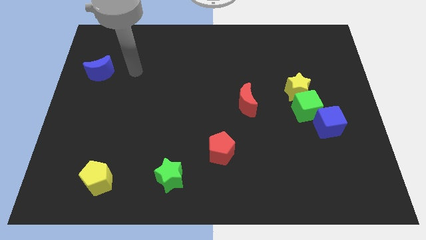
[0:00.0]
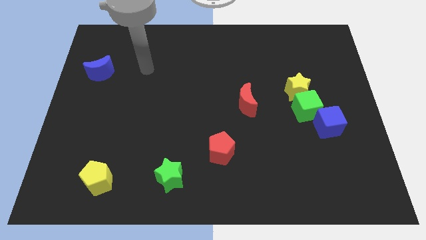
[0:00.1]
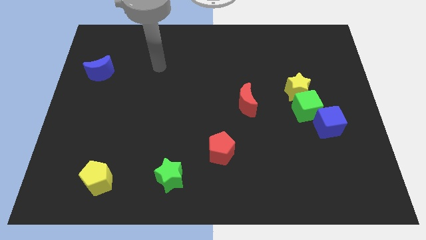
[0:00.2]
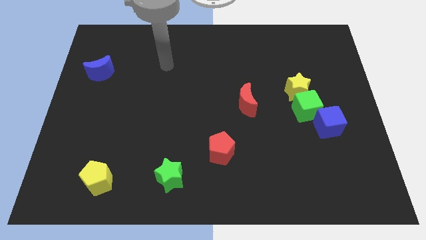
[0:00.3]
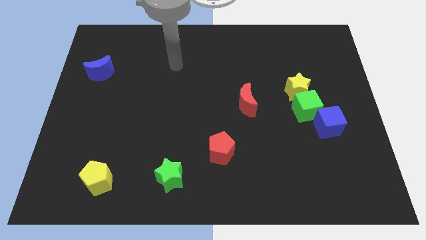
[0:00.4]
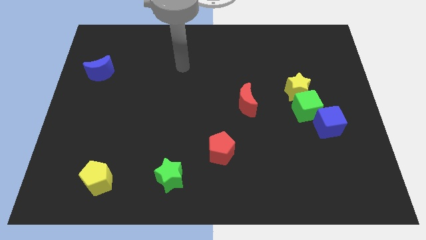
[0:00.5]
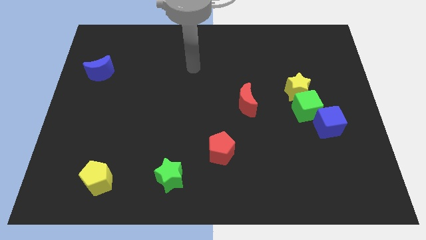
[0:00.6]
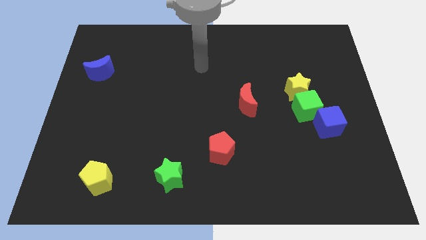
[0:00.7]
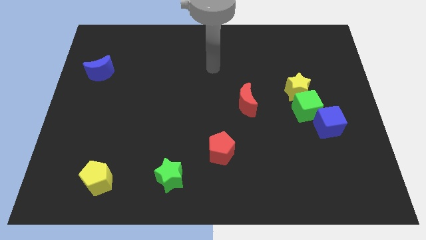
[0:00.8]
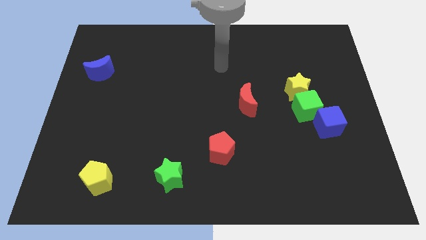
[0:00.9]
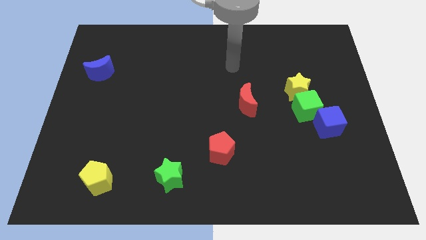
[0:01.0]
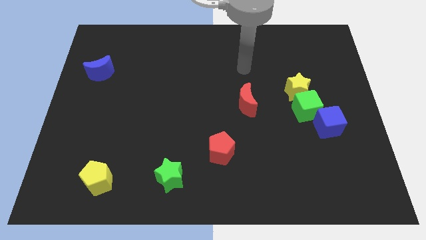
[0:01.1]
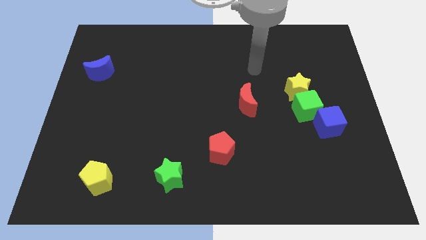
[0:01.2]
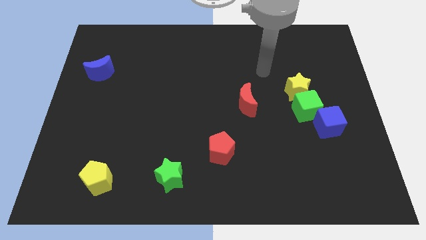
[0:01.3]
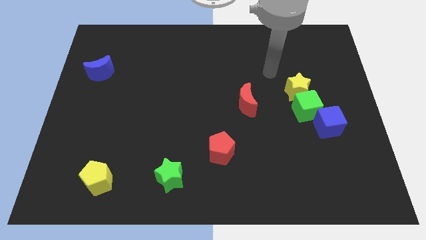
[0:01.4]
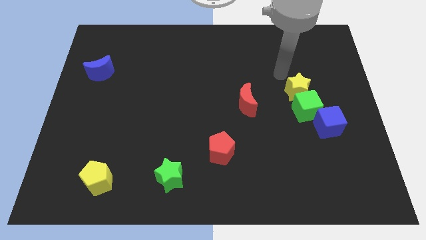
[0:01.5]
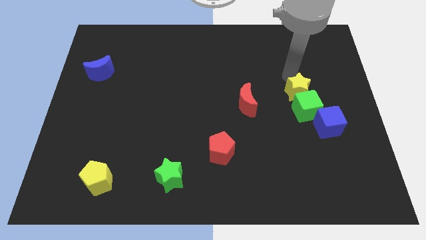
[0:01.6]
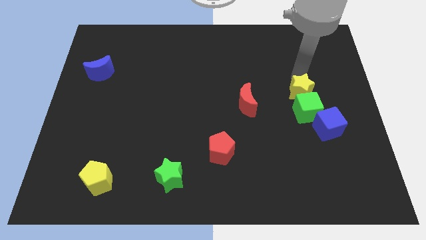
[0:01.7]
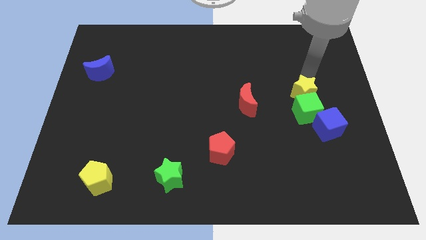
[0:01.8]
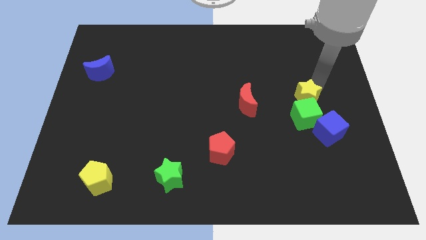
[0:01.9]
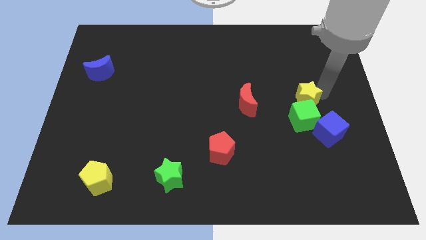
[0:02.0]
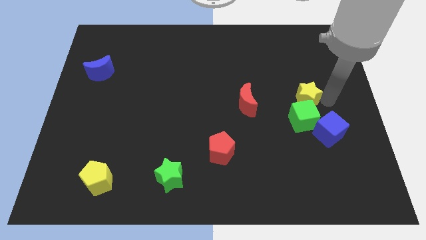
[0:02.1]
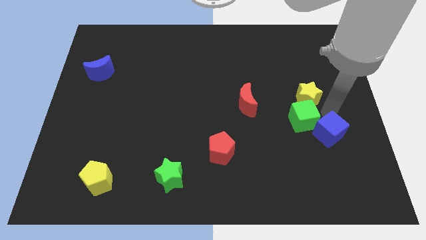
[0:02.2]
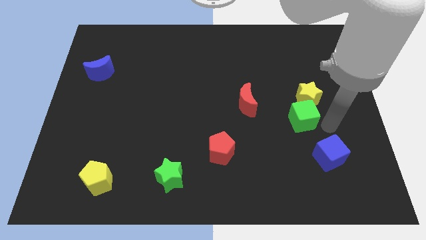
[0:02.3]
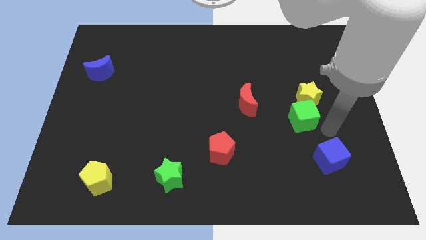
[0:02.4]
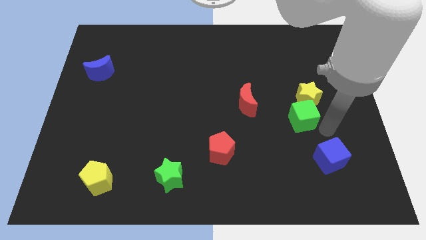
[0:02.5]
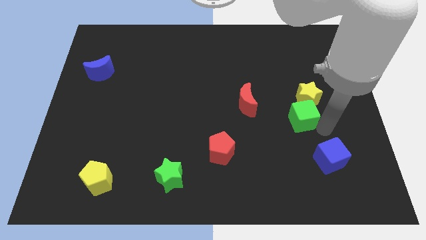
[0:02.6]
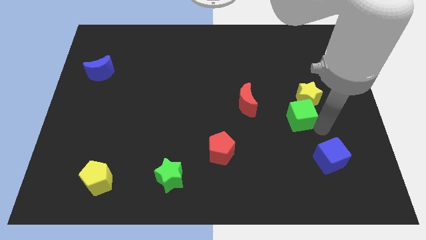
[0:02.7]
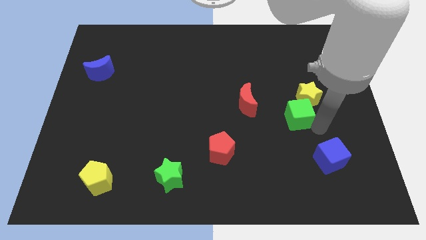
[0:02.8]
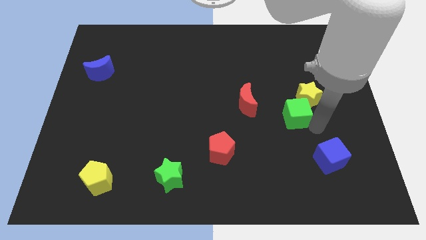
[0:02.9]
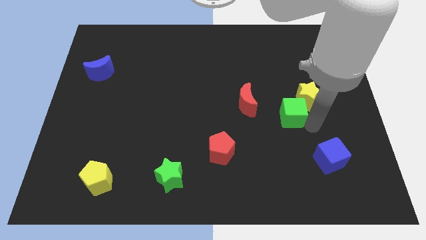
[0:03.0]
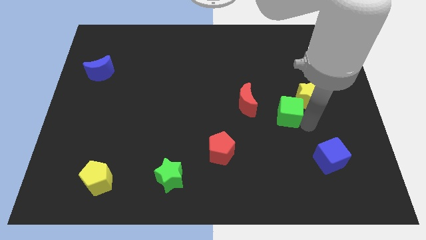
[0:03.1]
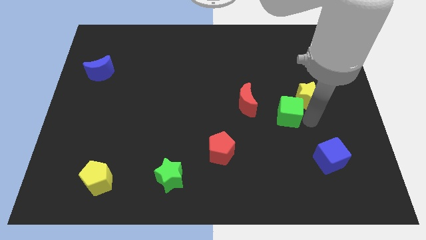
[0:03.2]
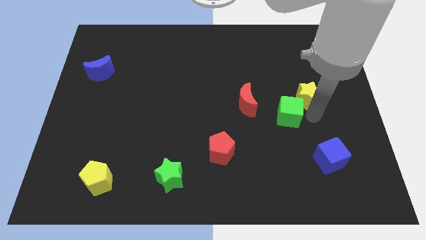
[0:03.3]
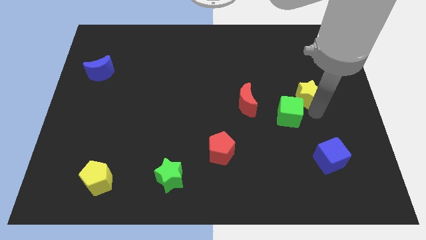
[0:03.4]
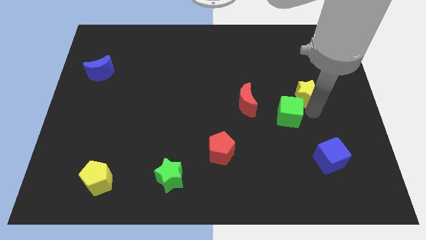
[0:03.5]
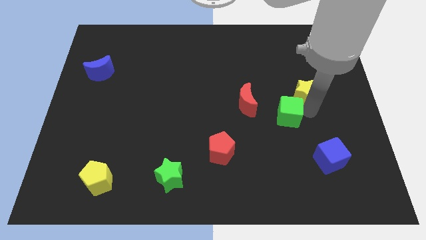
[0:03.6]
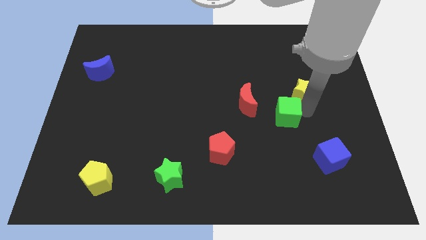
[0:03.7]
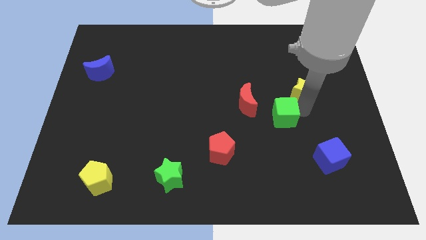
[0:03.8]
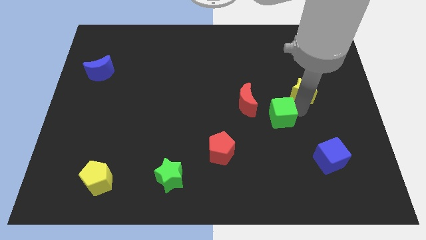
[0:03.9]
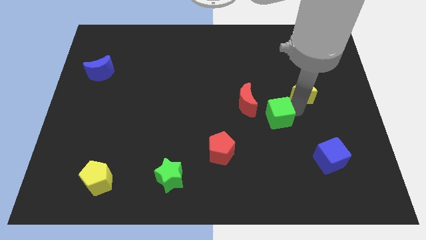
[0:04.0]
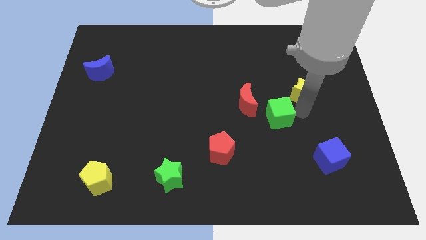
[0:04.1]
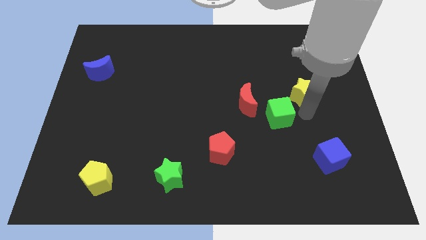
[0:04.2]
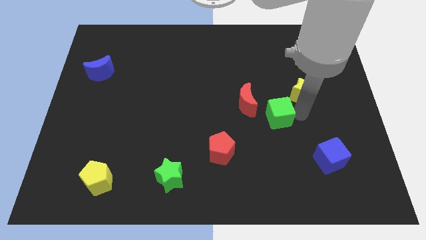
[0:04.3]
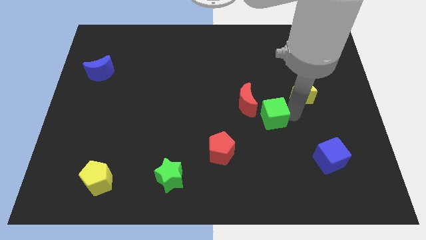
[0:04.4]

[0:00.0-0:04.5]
slide the green cube slightly to the left

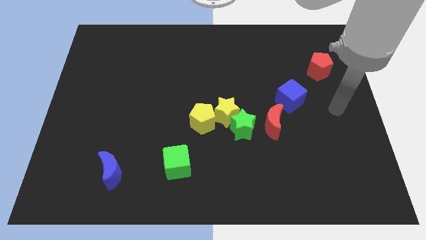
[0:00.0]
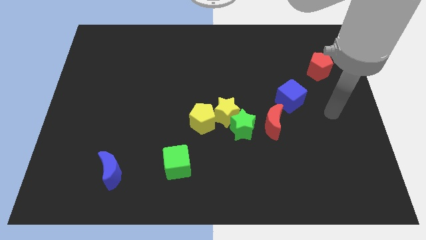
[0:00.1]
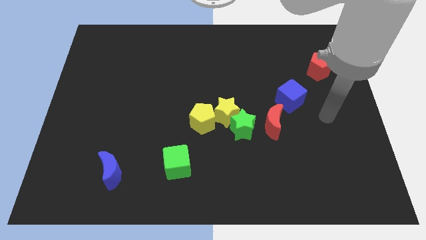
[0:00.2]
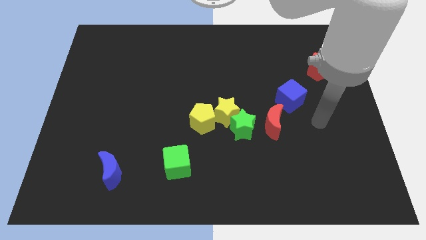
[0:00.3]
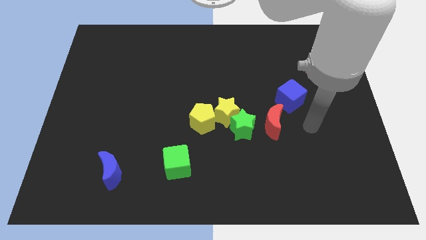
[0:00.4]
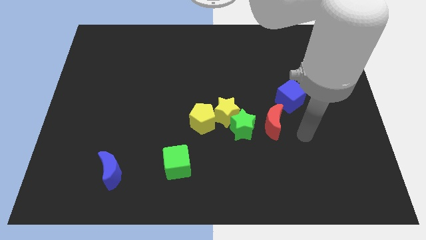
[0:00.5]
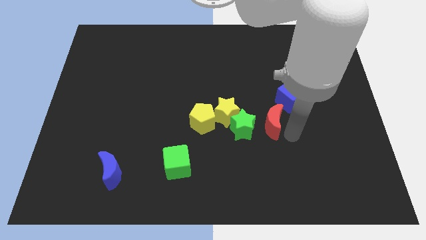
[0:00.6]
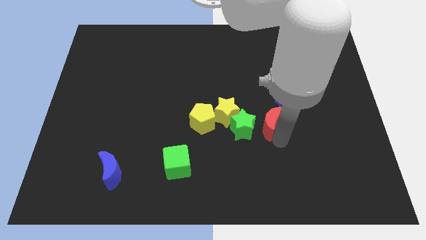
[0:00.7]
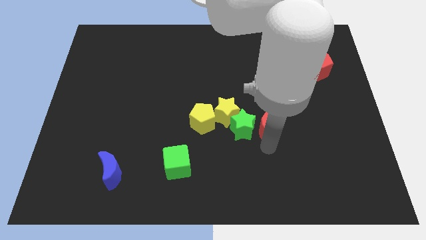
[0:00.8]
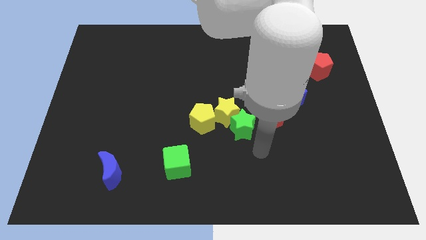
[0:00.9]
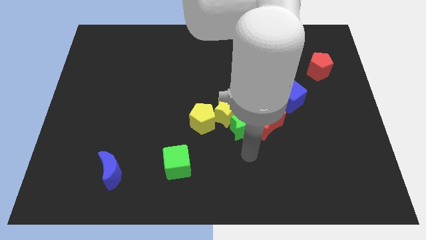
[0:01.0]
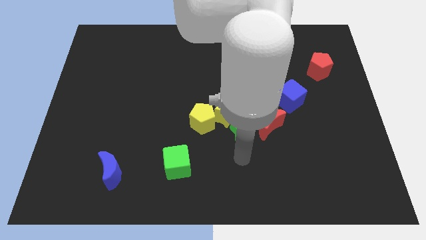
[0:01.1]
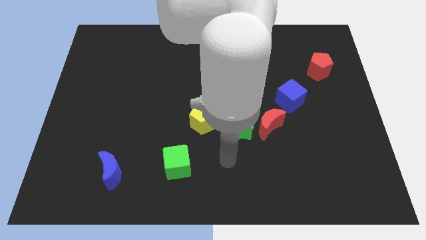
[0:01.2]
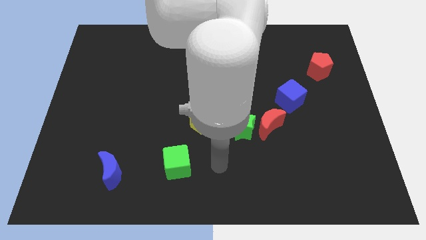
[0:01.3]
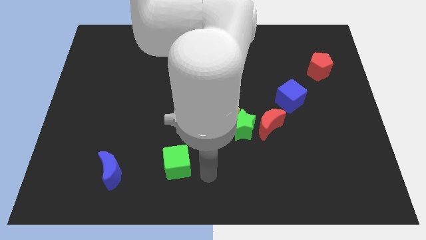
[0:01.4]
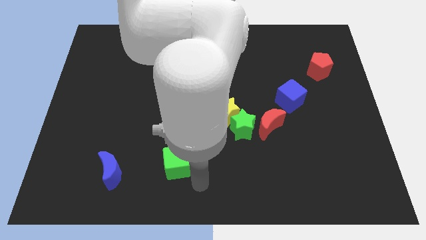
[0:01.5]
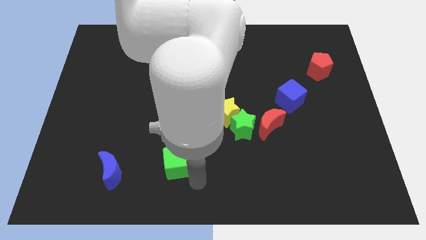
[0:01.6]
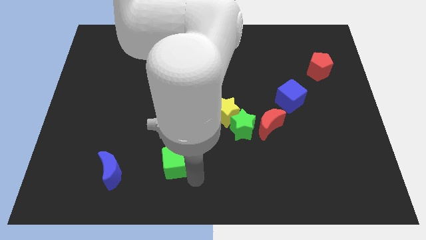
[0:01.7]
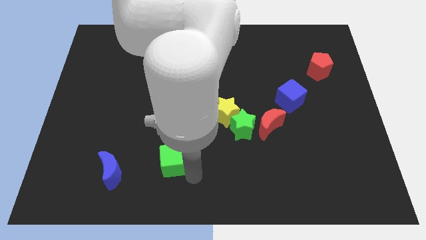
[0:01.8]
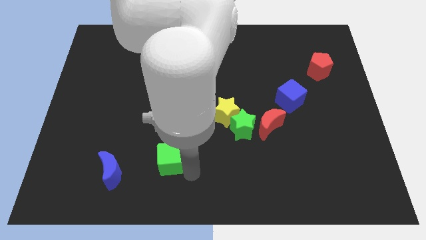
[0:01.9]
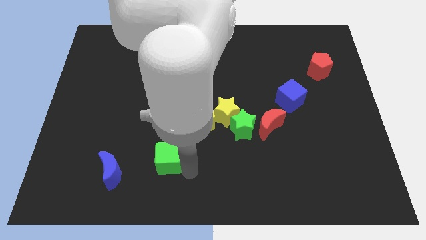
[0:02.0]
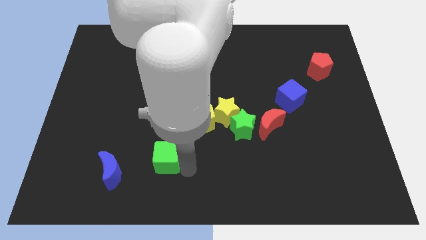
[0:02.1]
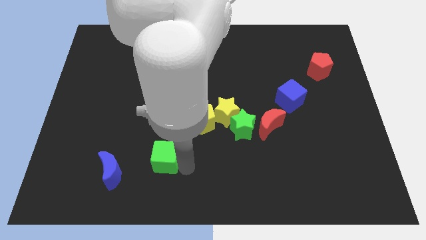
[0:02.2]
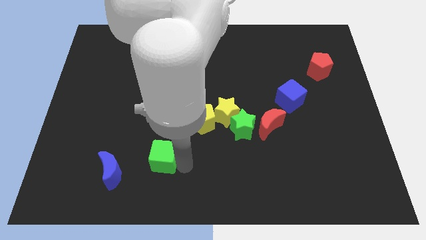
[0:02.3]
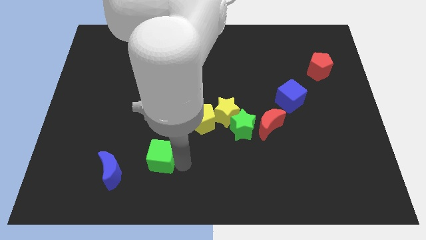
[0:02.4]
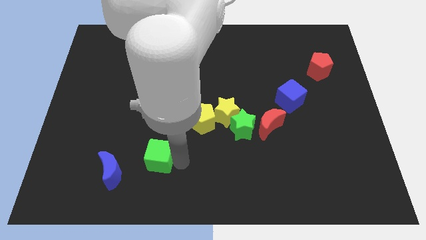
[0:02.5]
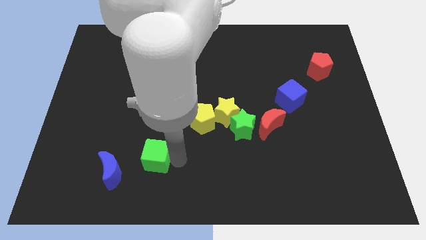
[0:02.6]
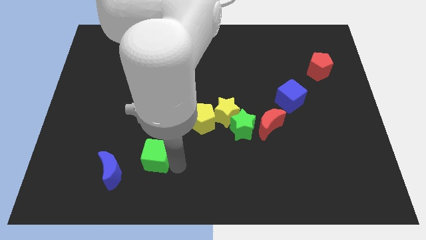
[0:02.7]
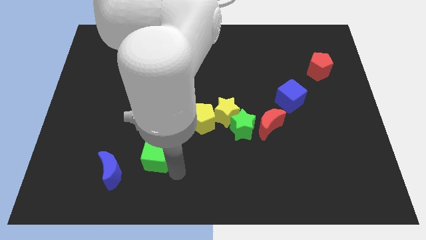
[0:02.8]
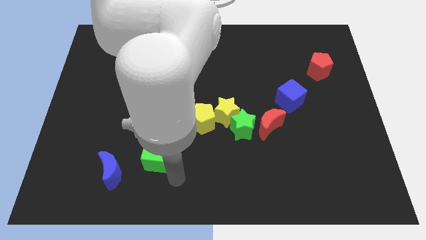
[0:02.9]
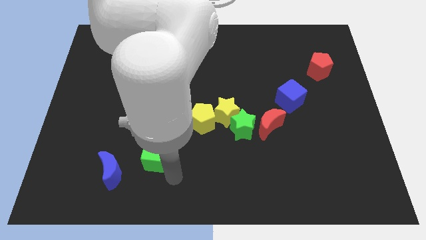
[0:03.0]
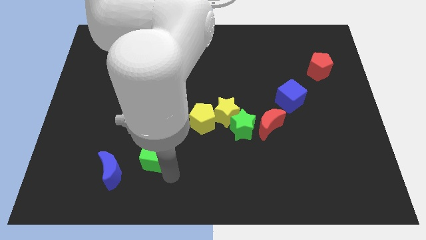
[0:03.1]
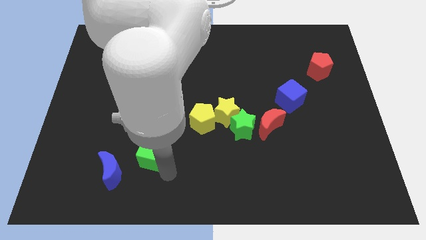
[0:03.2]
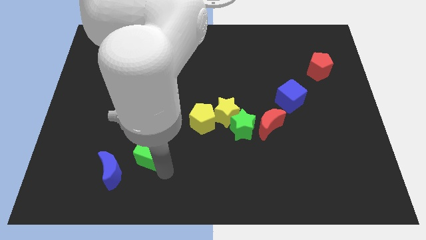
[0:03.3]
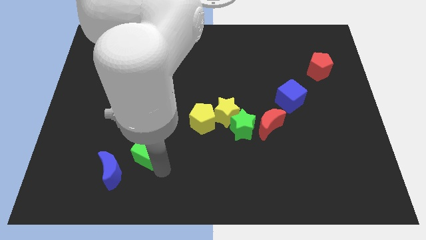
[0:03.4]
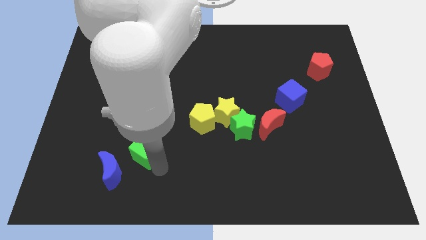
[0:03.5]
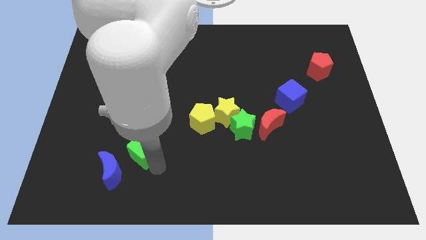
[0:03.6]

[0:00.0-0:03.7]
push the green cube a little bit up and then left
